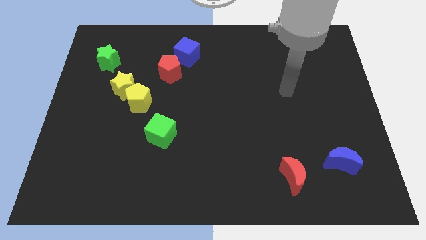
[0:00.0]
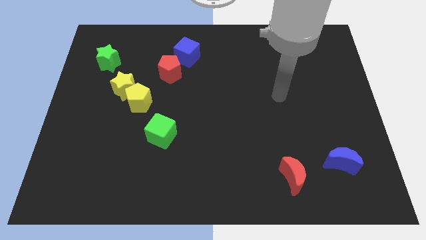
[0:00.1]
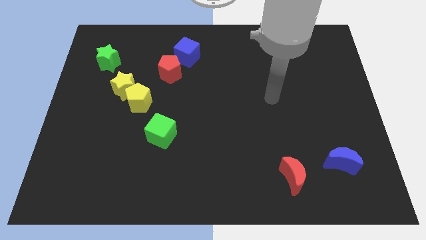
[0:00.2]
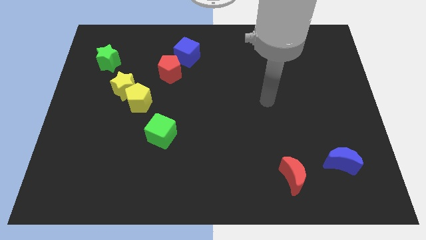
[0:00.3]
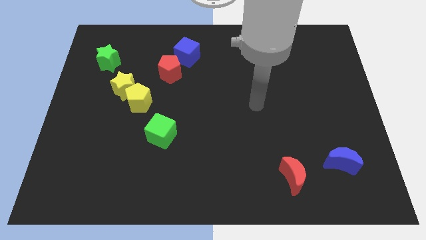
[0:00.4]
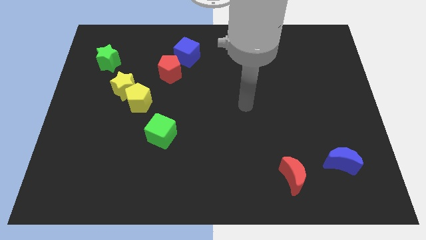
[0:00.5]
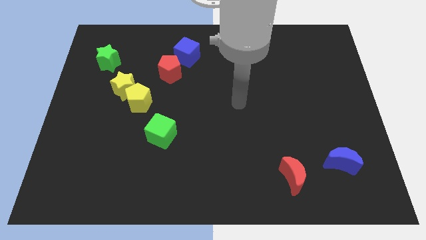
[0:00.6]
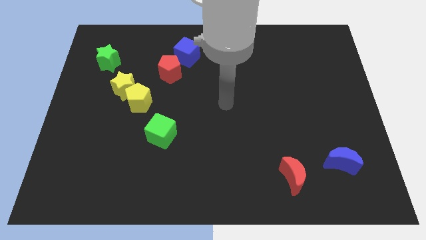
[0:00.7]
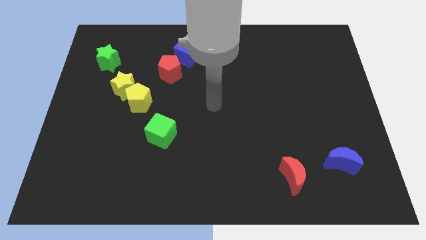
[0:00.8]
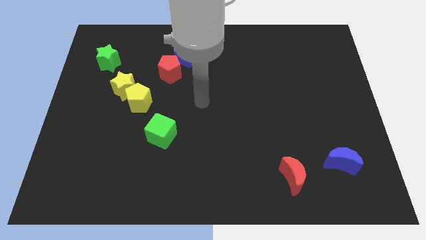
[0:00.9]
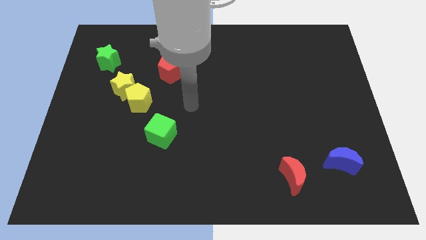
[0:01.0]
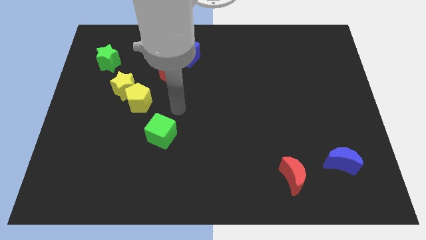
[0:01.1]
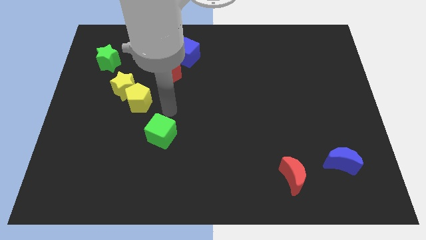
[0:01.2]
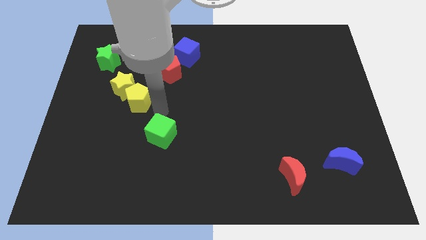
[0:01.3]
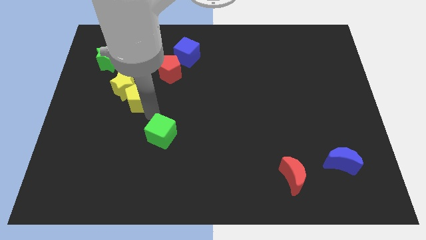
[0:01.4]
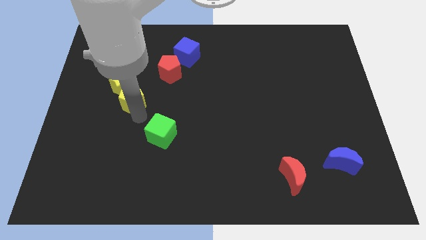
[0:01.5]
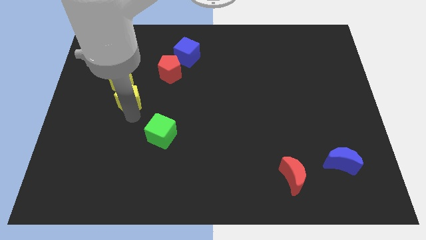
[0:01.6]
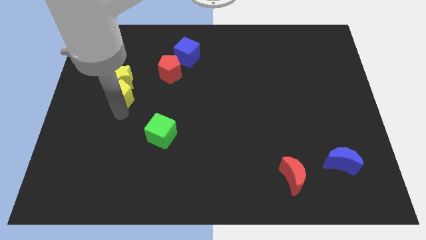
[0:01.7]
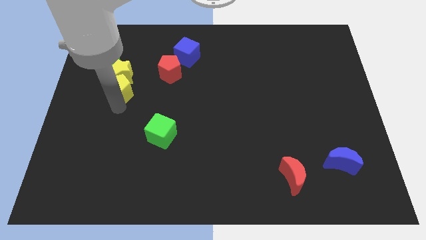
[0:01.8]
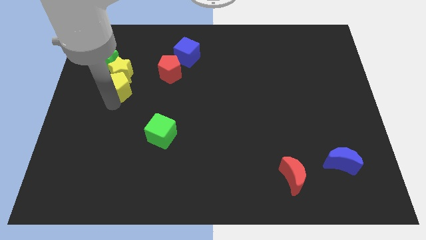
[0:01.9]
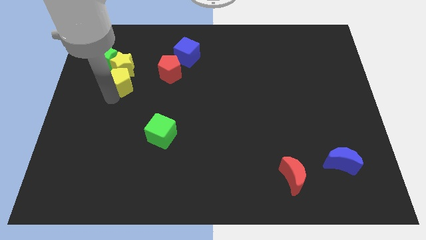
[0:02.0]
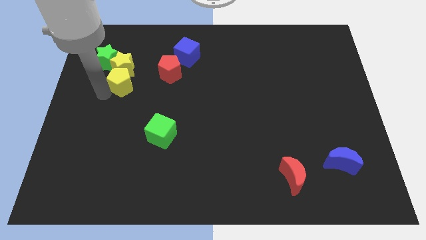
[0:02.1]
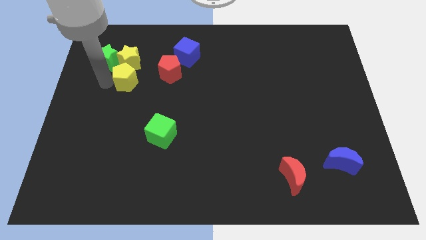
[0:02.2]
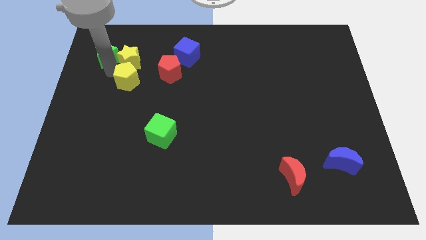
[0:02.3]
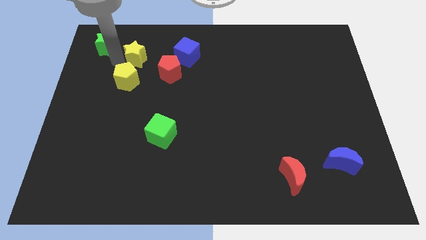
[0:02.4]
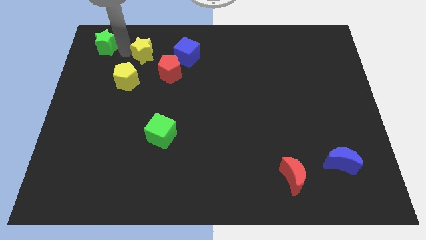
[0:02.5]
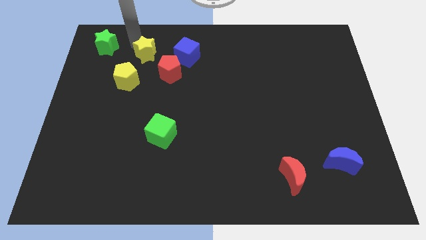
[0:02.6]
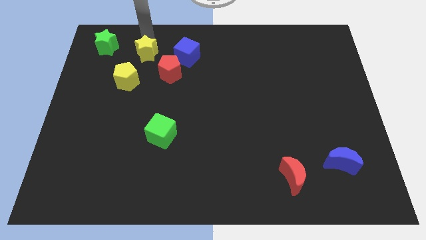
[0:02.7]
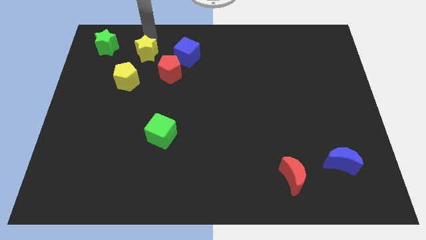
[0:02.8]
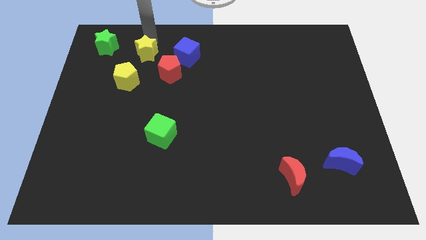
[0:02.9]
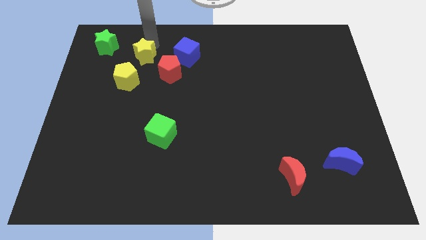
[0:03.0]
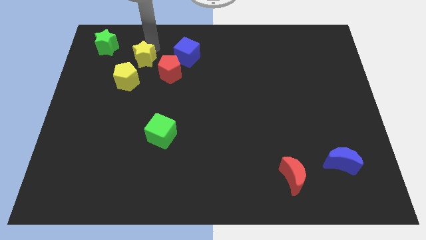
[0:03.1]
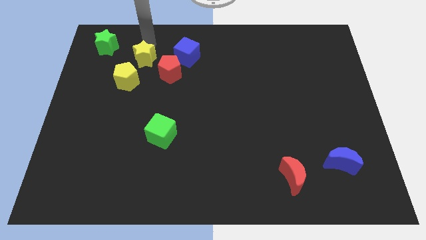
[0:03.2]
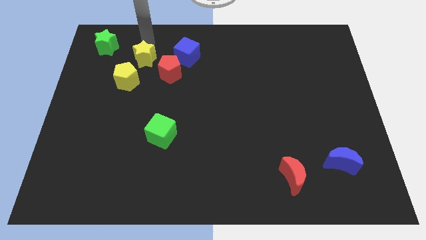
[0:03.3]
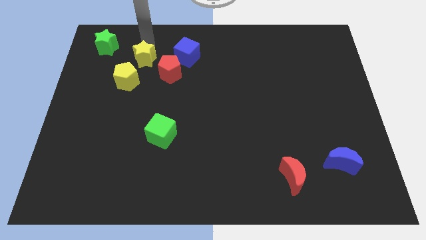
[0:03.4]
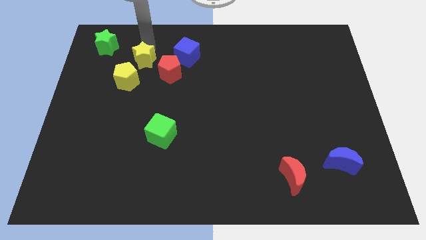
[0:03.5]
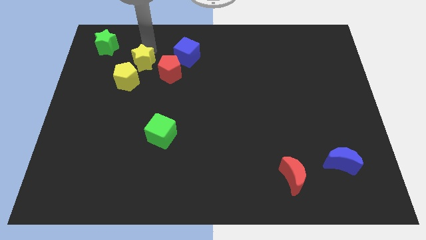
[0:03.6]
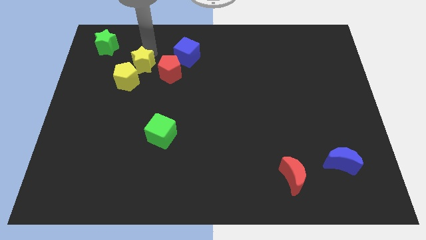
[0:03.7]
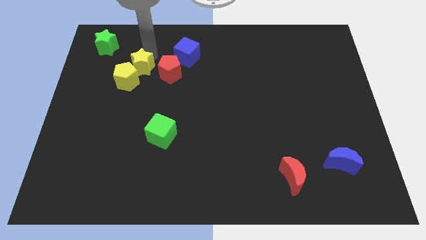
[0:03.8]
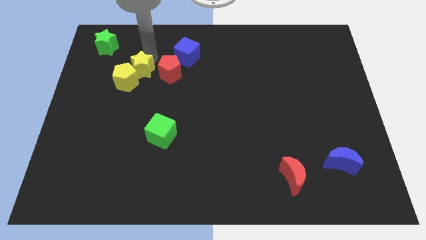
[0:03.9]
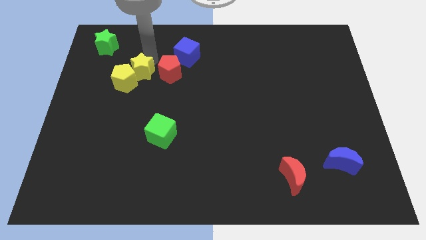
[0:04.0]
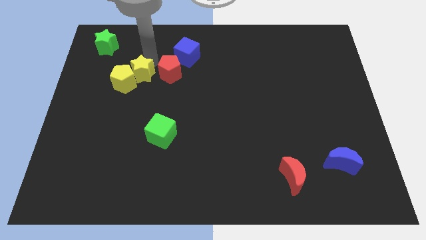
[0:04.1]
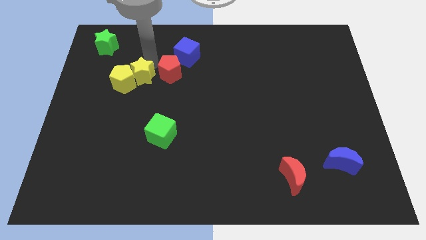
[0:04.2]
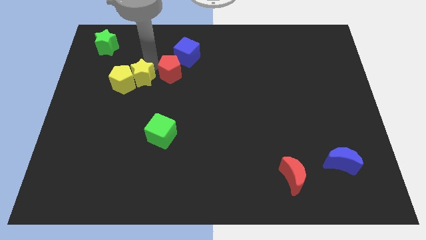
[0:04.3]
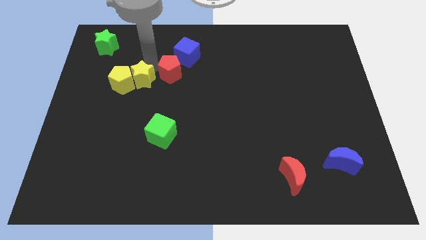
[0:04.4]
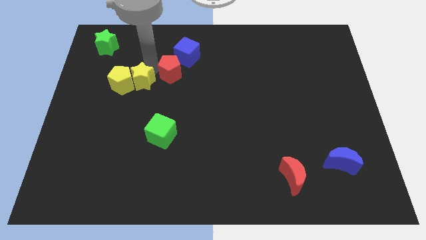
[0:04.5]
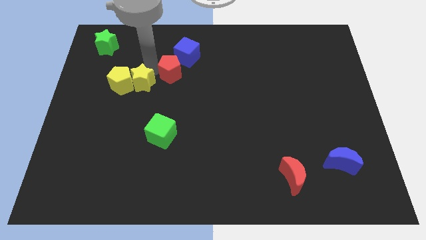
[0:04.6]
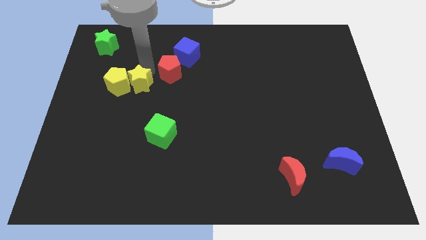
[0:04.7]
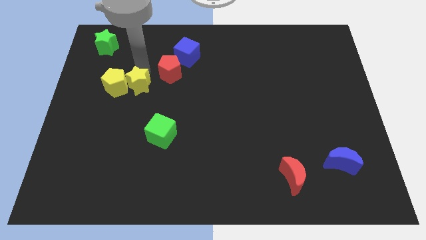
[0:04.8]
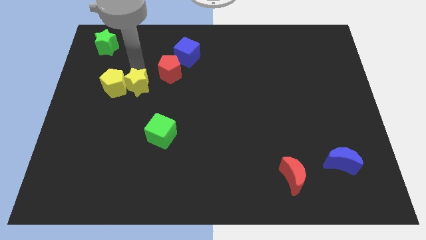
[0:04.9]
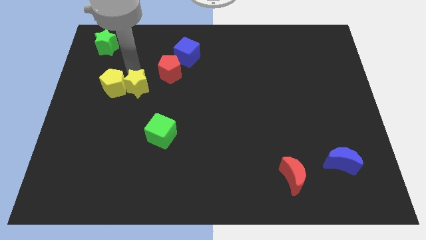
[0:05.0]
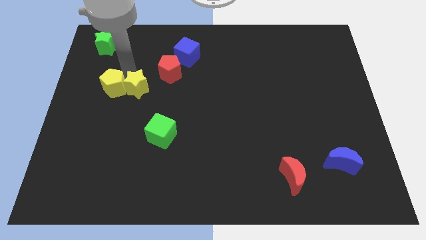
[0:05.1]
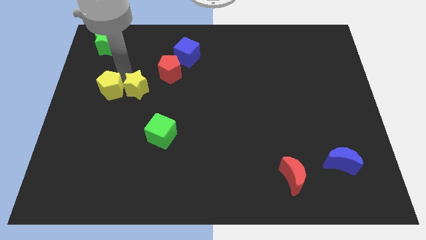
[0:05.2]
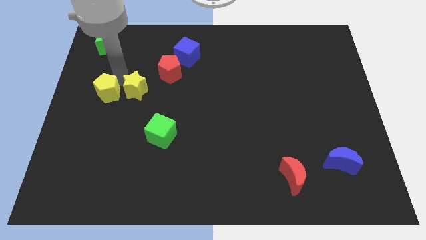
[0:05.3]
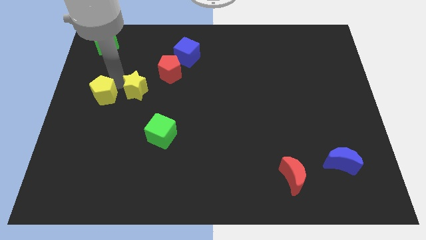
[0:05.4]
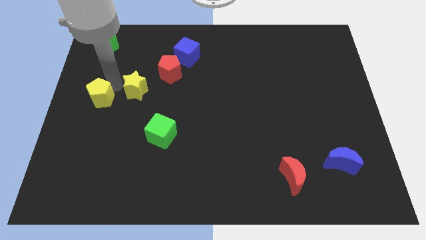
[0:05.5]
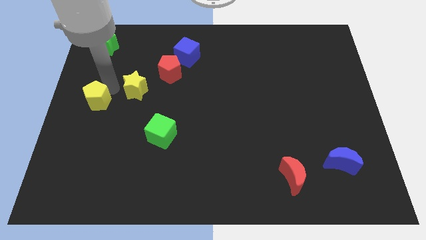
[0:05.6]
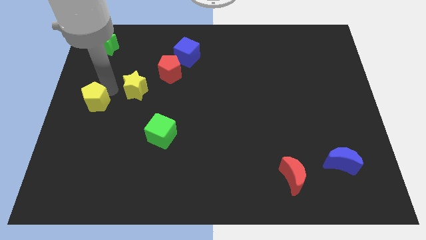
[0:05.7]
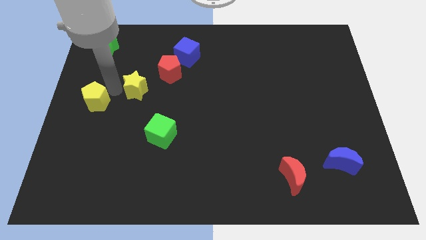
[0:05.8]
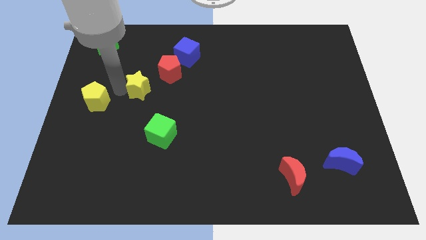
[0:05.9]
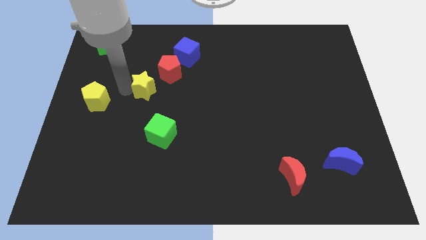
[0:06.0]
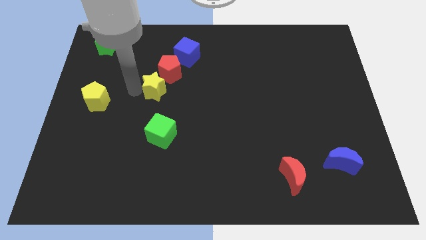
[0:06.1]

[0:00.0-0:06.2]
move the yellow star somewhat to the right

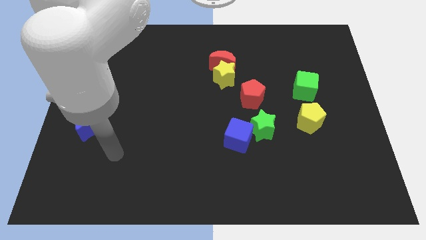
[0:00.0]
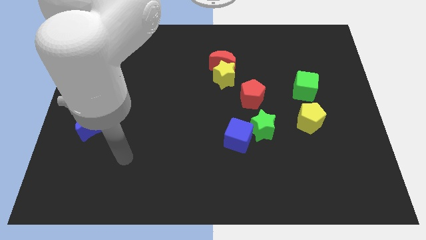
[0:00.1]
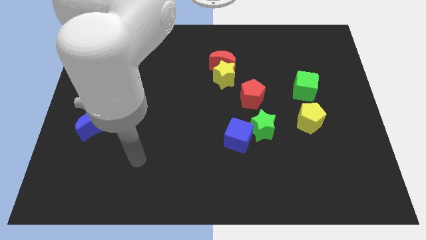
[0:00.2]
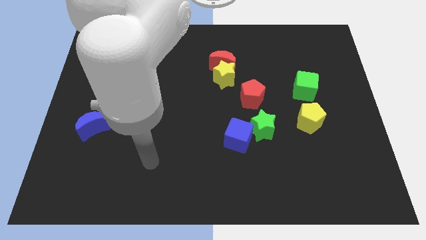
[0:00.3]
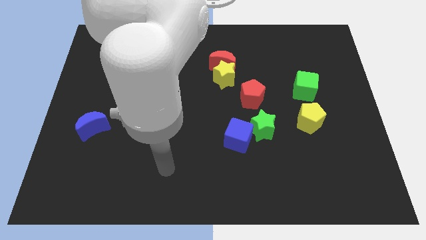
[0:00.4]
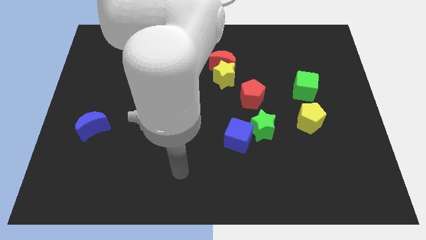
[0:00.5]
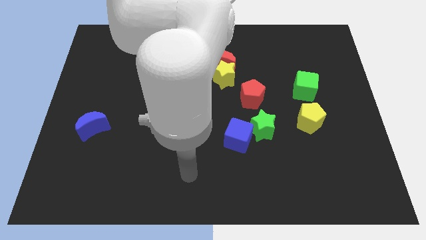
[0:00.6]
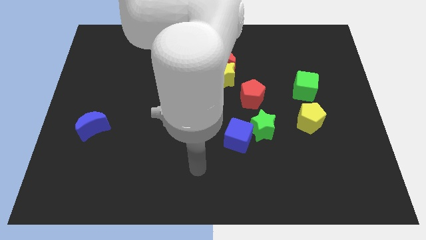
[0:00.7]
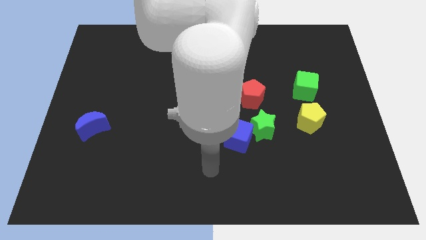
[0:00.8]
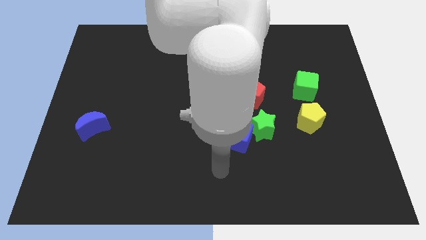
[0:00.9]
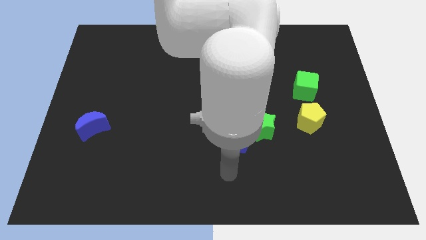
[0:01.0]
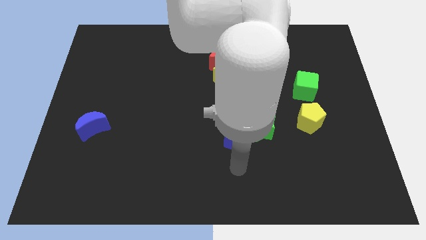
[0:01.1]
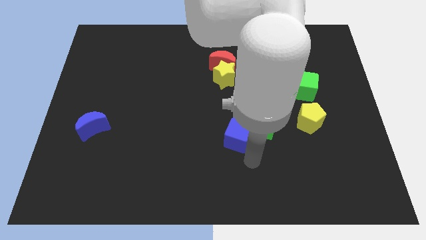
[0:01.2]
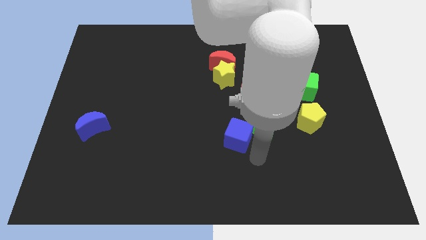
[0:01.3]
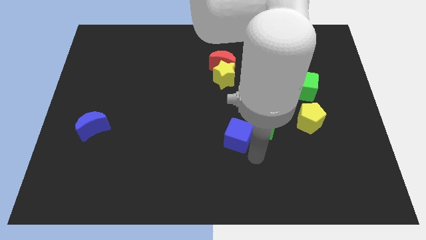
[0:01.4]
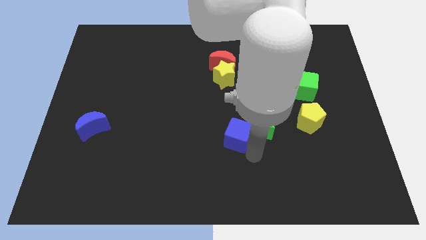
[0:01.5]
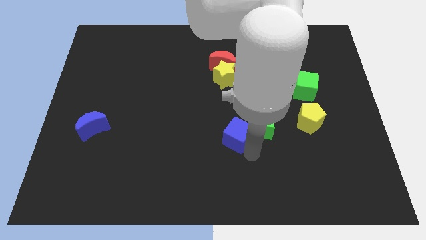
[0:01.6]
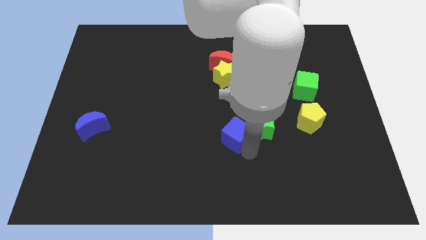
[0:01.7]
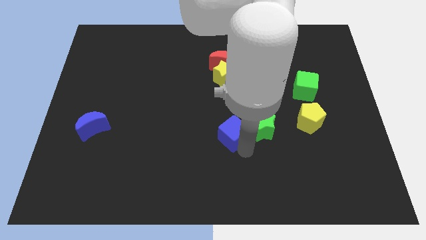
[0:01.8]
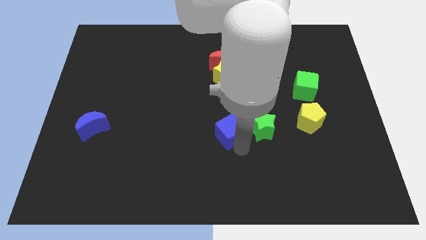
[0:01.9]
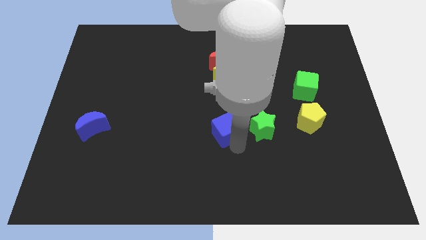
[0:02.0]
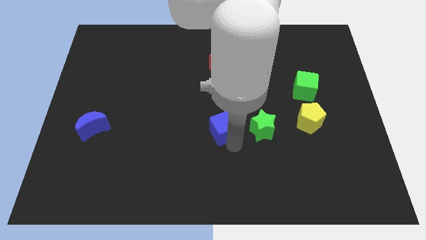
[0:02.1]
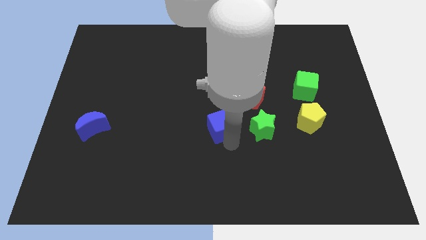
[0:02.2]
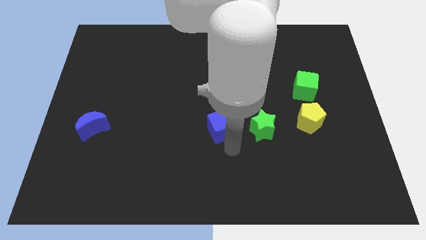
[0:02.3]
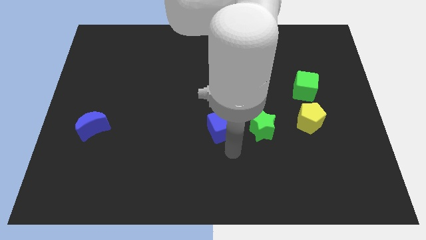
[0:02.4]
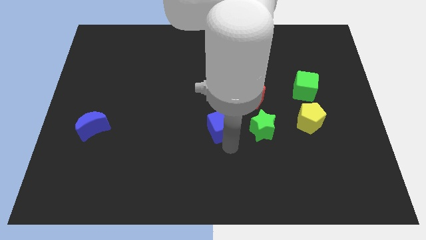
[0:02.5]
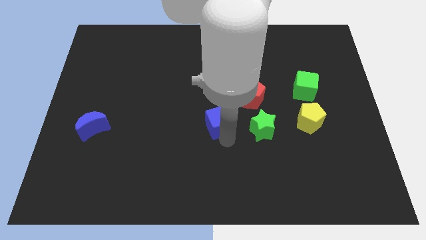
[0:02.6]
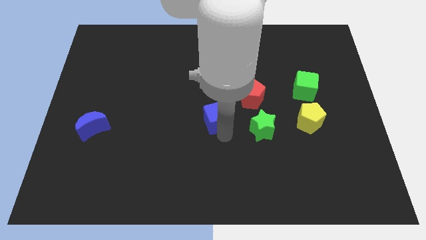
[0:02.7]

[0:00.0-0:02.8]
slightly push the blue cube upwards and left diagonally
